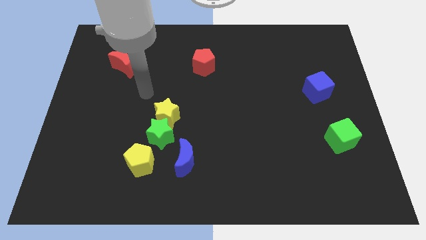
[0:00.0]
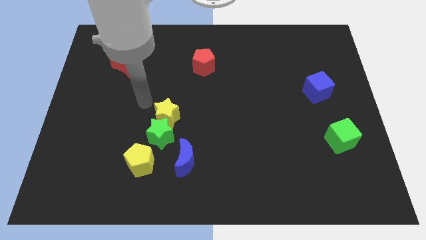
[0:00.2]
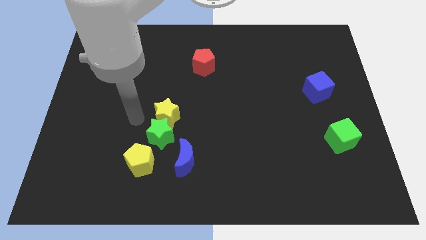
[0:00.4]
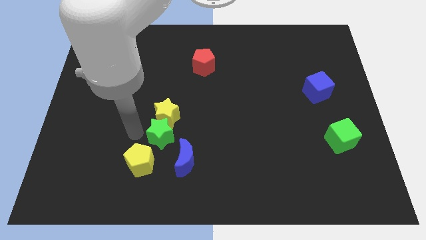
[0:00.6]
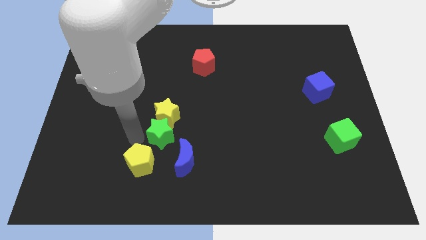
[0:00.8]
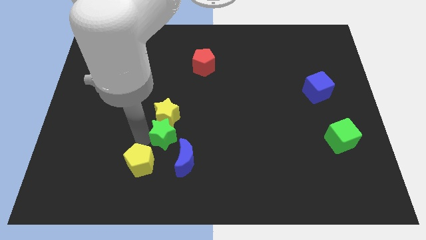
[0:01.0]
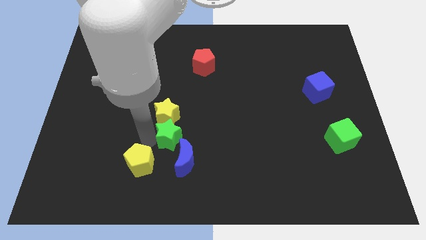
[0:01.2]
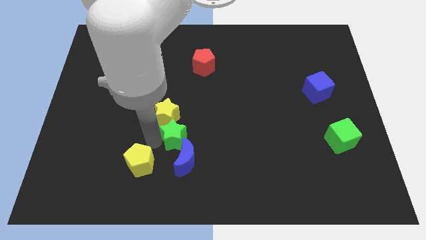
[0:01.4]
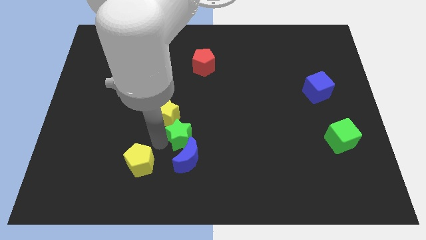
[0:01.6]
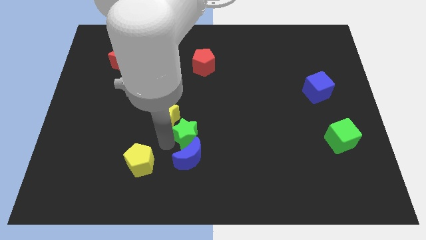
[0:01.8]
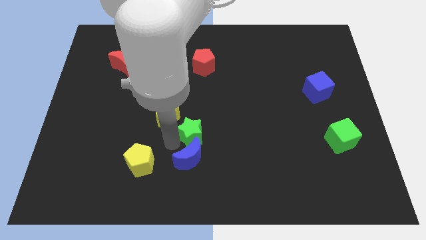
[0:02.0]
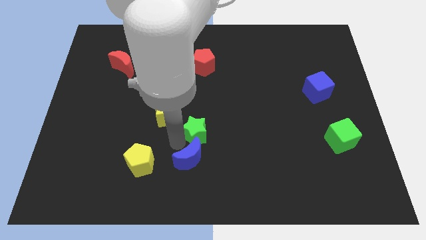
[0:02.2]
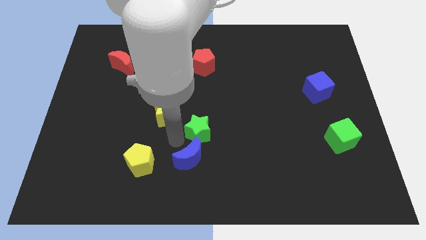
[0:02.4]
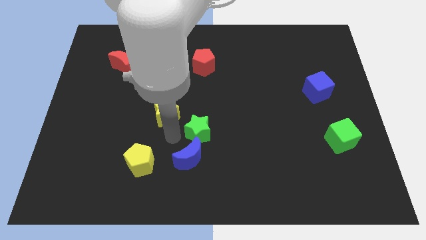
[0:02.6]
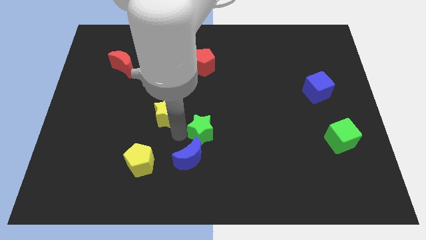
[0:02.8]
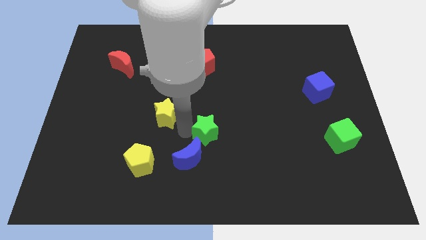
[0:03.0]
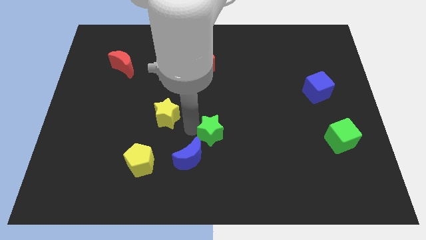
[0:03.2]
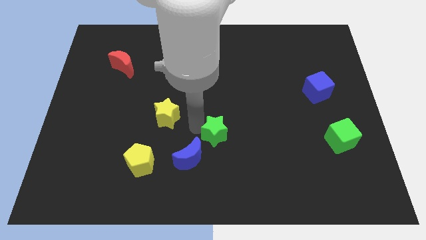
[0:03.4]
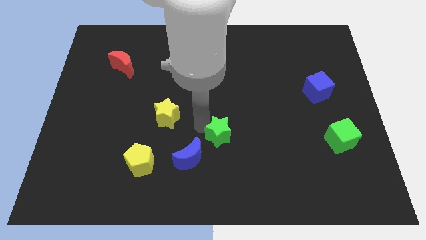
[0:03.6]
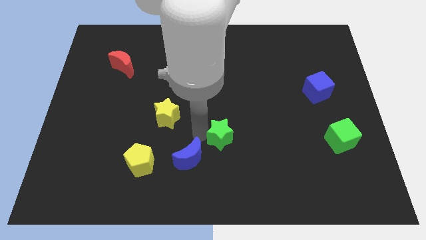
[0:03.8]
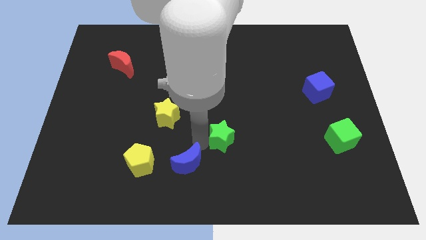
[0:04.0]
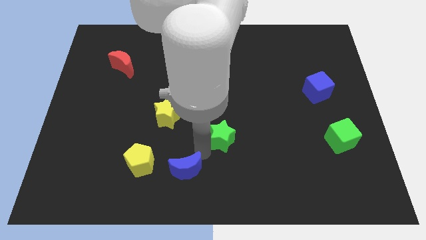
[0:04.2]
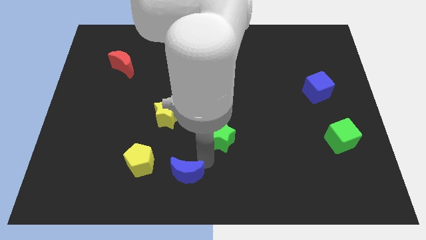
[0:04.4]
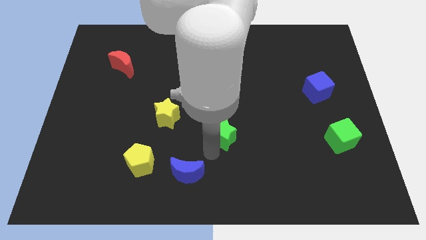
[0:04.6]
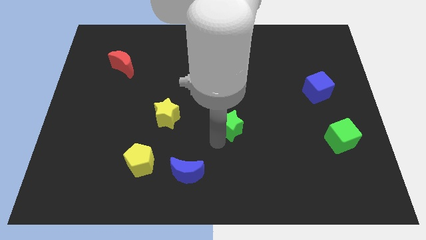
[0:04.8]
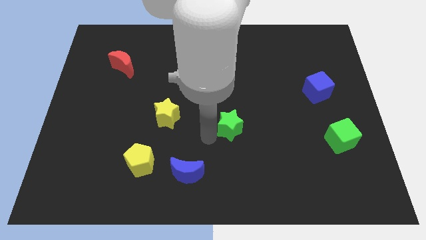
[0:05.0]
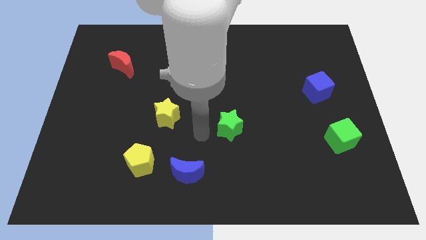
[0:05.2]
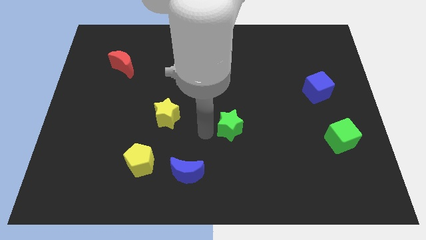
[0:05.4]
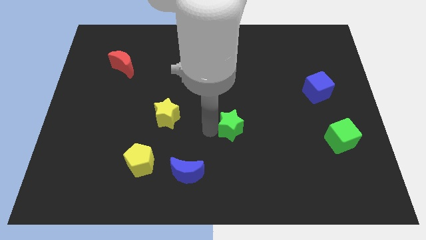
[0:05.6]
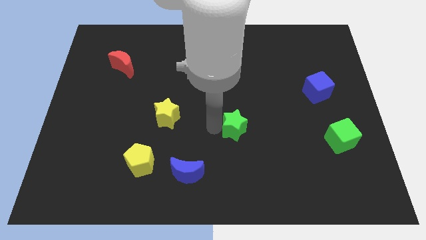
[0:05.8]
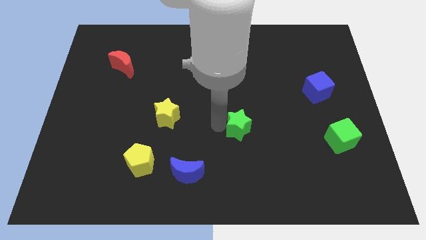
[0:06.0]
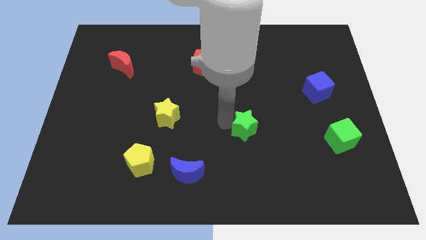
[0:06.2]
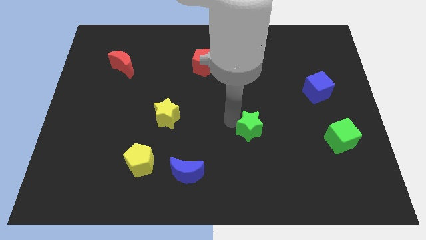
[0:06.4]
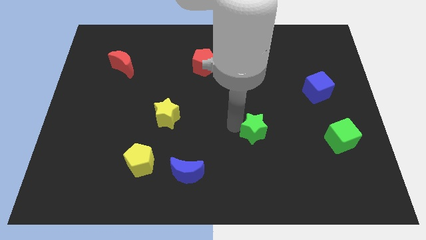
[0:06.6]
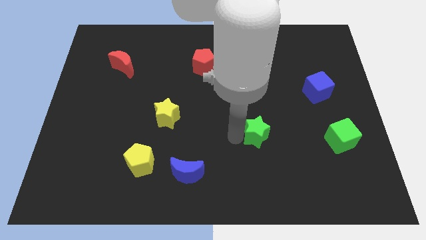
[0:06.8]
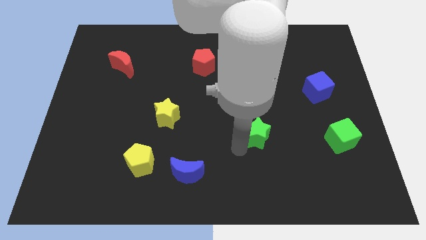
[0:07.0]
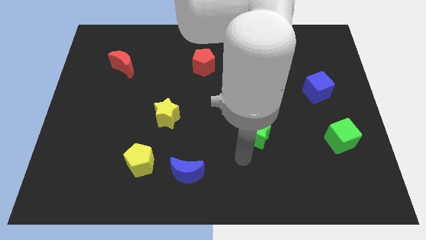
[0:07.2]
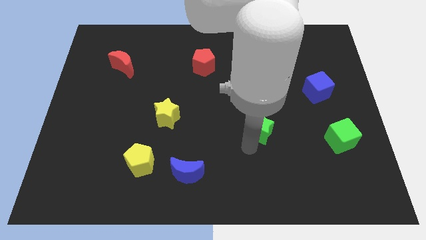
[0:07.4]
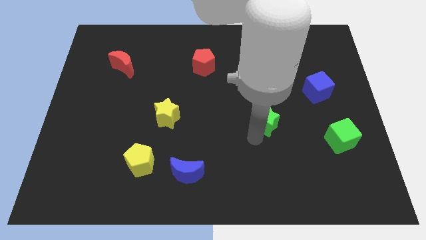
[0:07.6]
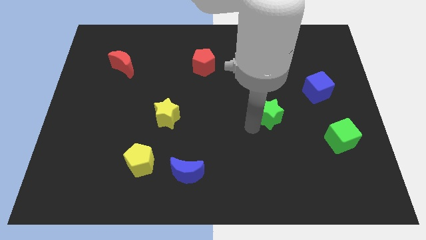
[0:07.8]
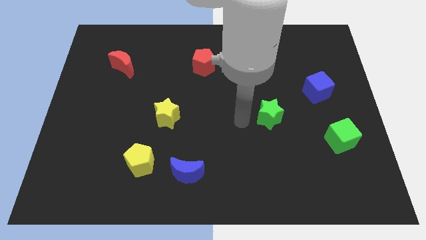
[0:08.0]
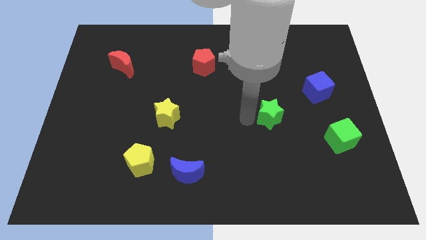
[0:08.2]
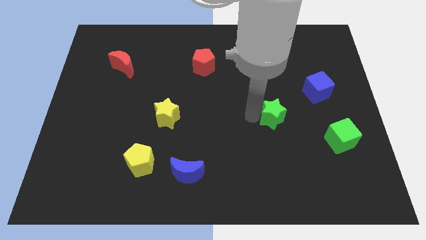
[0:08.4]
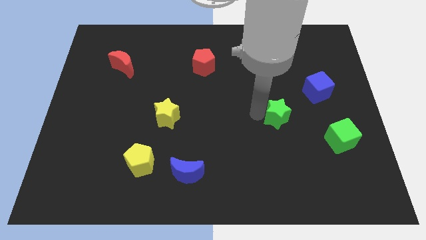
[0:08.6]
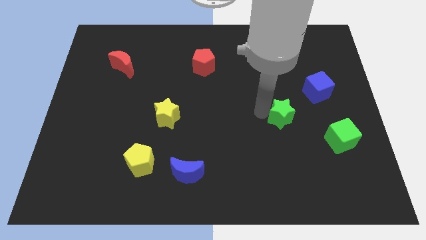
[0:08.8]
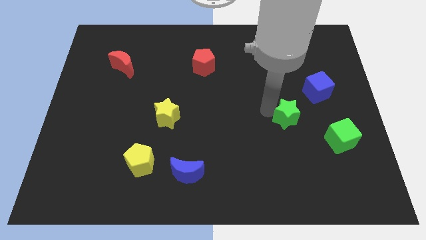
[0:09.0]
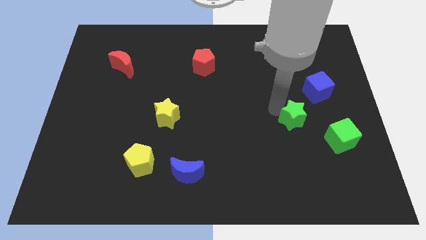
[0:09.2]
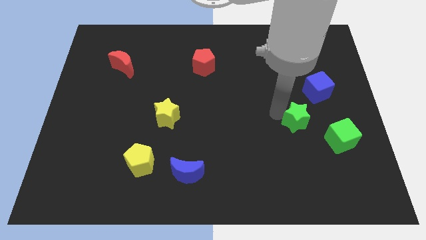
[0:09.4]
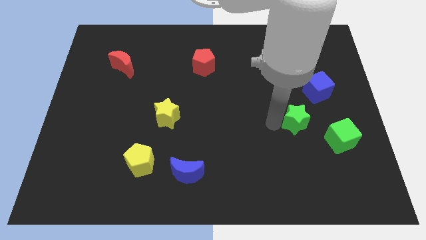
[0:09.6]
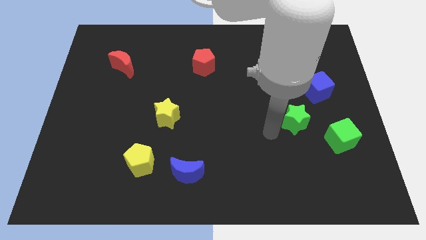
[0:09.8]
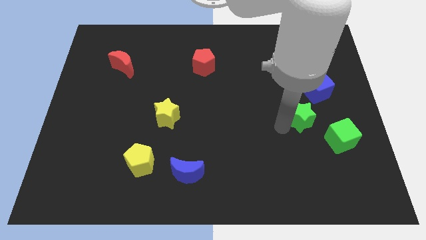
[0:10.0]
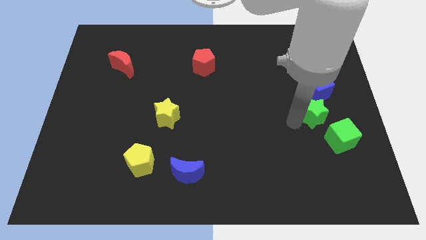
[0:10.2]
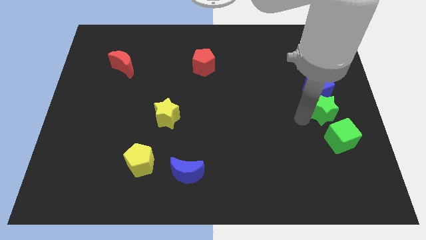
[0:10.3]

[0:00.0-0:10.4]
move the green star to the center right

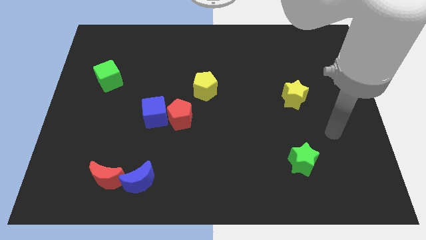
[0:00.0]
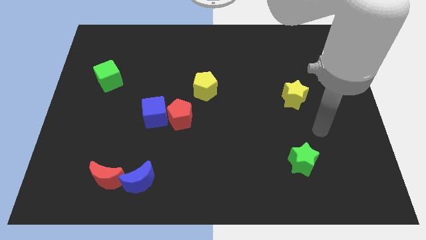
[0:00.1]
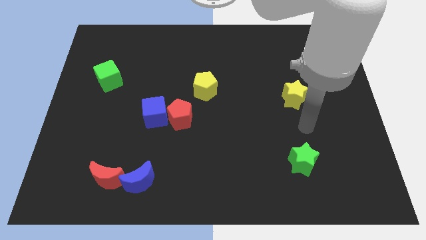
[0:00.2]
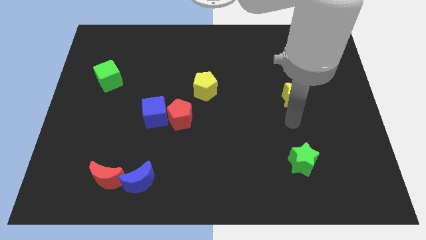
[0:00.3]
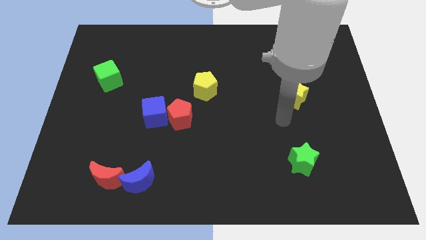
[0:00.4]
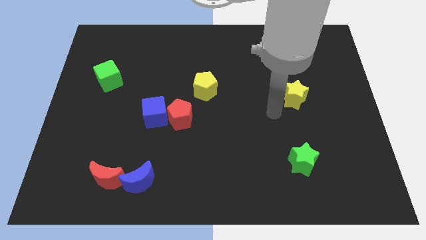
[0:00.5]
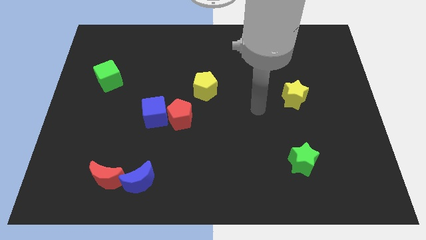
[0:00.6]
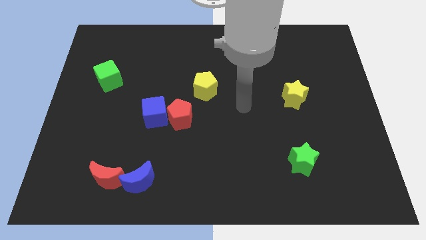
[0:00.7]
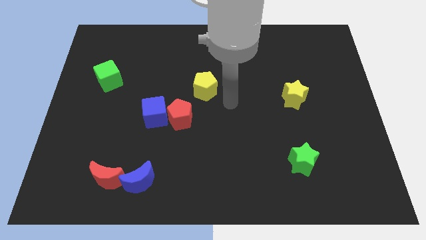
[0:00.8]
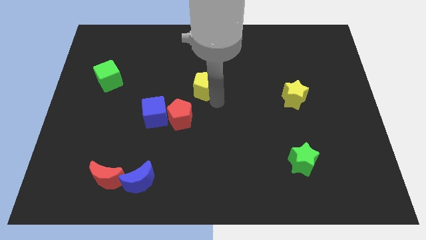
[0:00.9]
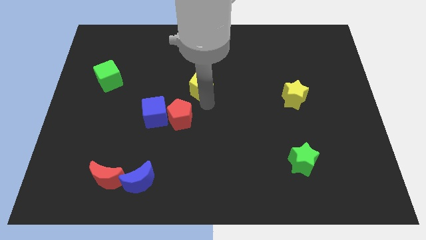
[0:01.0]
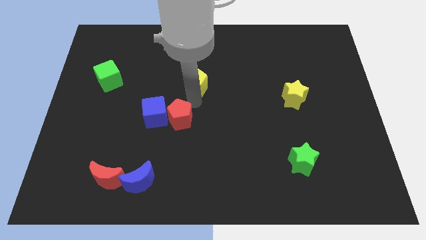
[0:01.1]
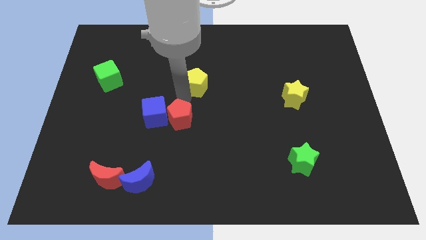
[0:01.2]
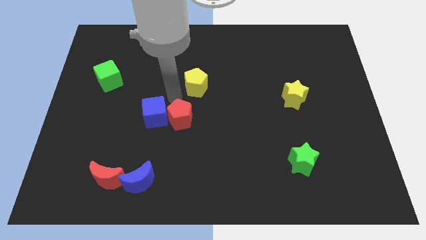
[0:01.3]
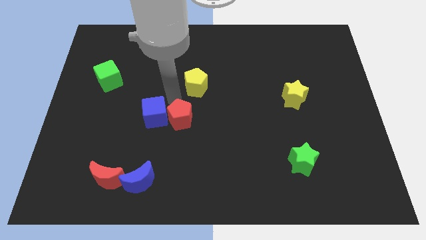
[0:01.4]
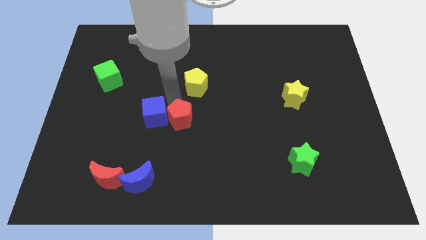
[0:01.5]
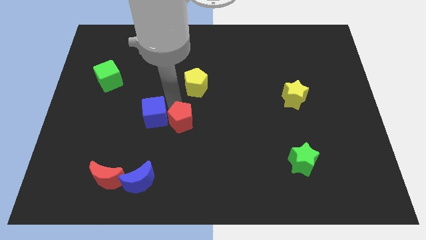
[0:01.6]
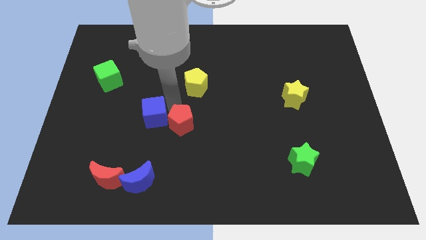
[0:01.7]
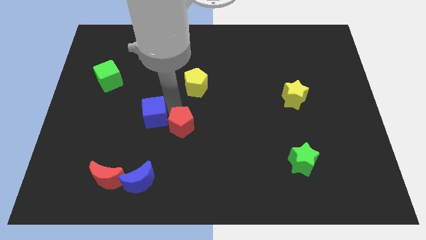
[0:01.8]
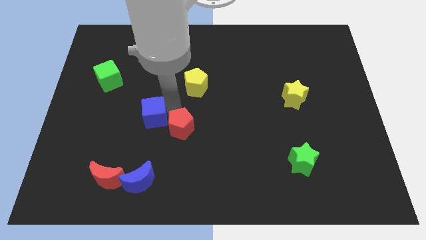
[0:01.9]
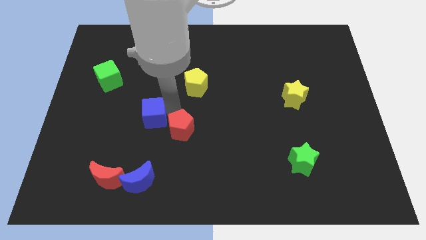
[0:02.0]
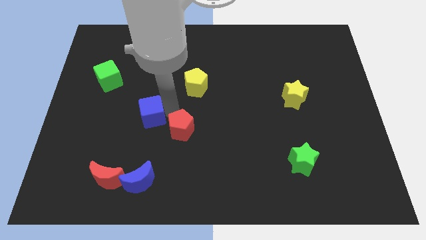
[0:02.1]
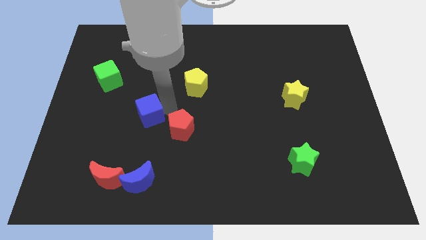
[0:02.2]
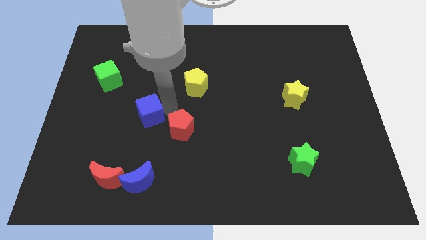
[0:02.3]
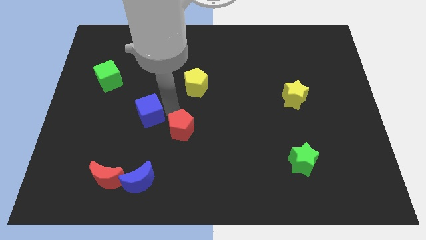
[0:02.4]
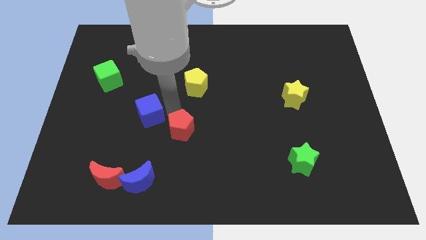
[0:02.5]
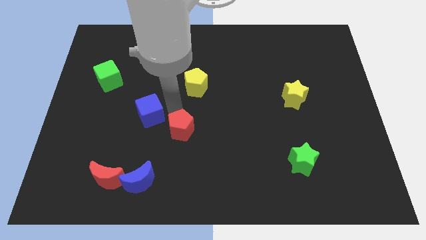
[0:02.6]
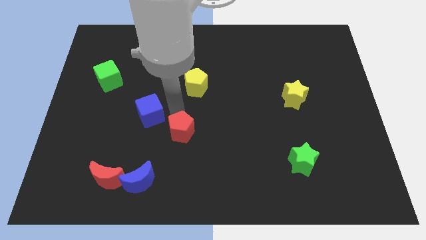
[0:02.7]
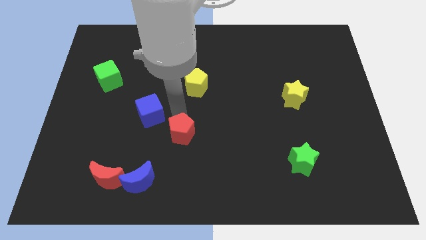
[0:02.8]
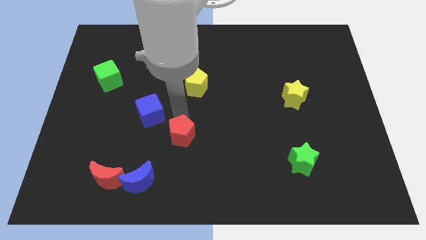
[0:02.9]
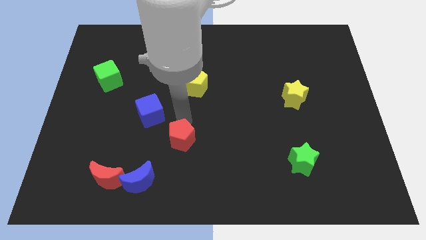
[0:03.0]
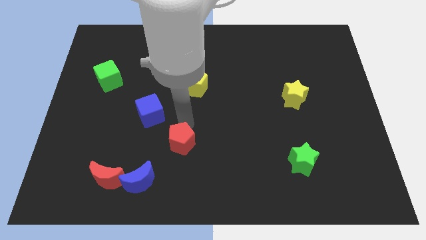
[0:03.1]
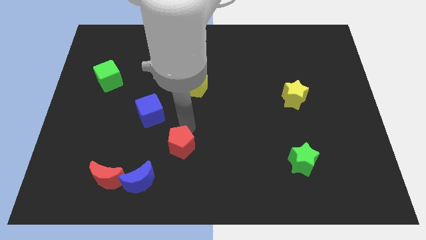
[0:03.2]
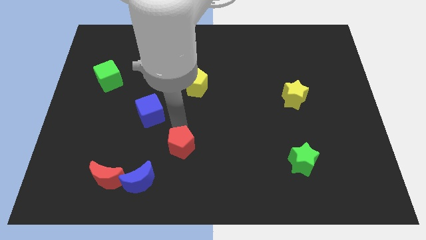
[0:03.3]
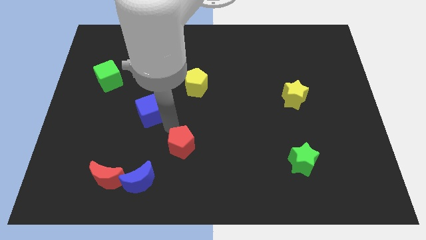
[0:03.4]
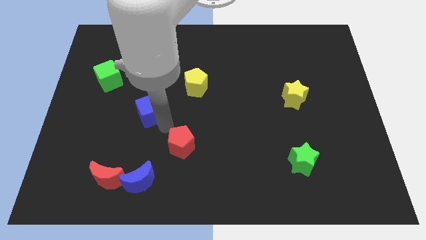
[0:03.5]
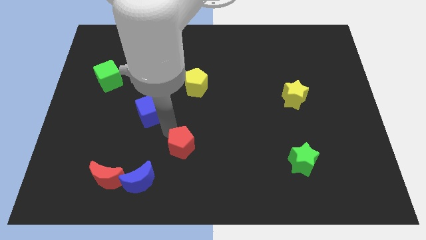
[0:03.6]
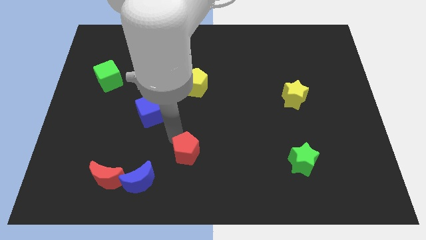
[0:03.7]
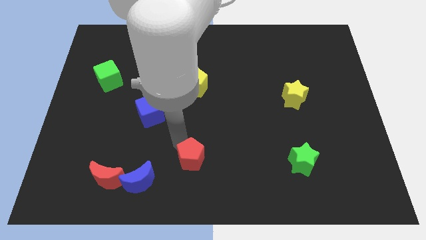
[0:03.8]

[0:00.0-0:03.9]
slide the red pentagon to the bottom side
